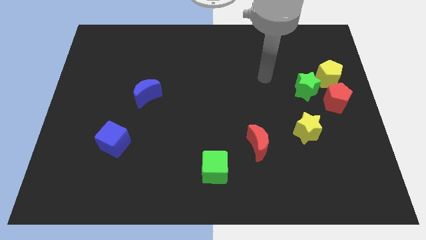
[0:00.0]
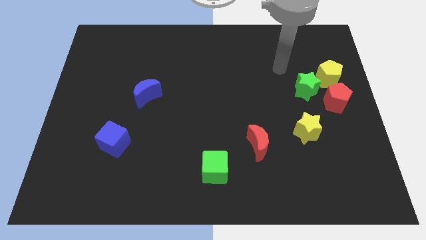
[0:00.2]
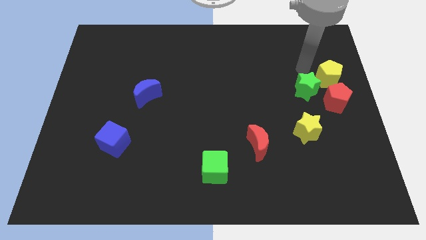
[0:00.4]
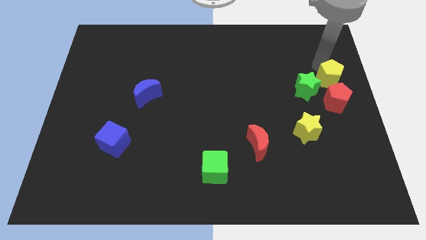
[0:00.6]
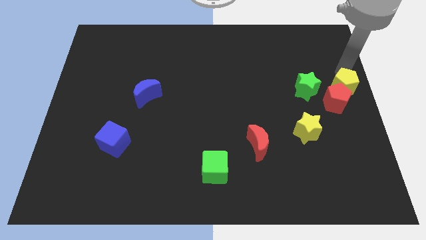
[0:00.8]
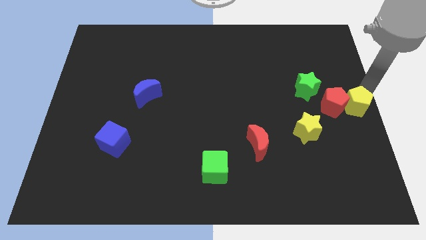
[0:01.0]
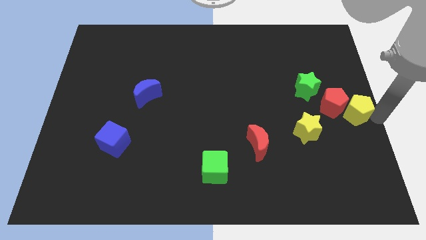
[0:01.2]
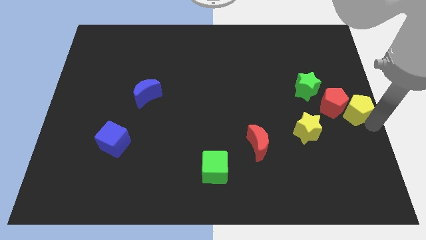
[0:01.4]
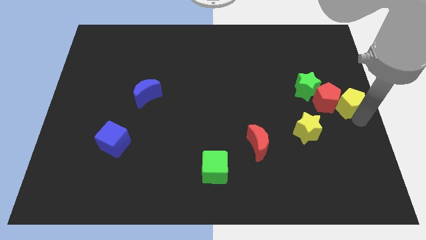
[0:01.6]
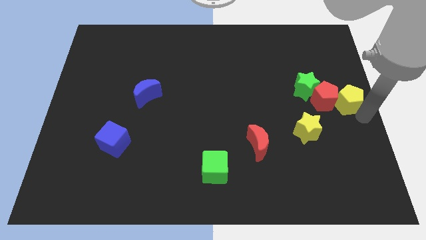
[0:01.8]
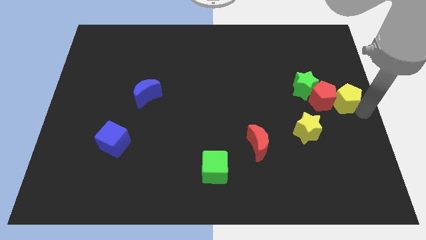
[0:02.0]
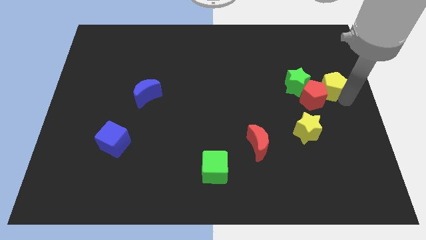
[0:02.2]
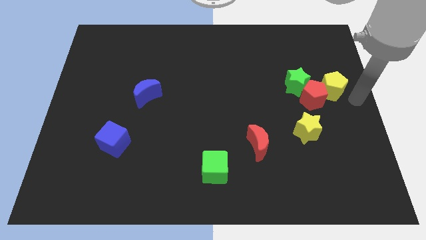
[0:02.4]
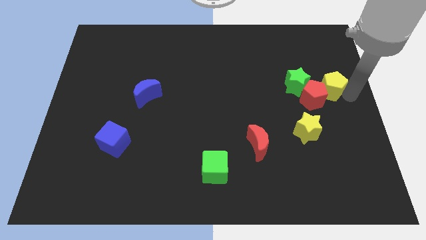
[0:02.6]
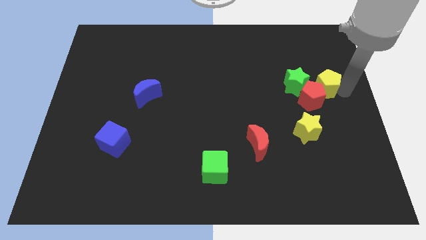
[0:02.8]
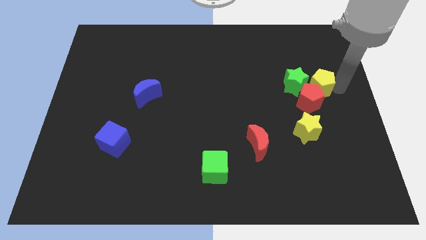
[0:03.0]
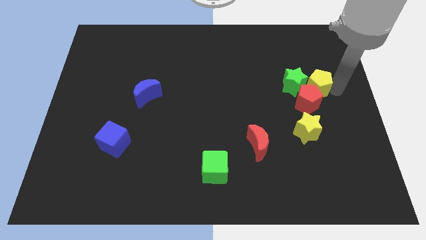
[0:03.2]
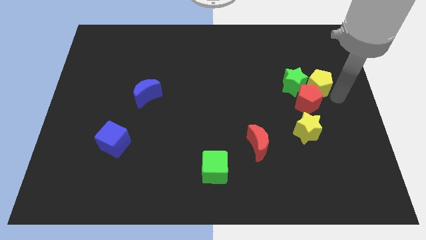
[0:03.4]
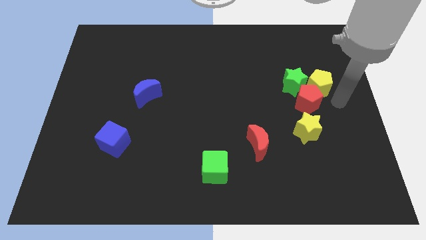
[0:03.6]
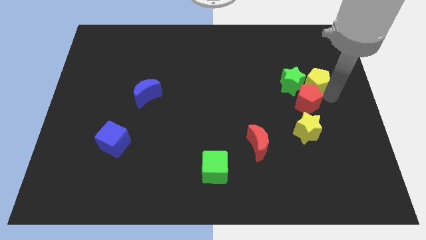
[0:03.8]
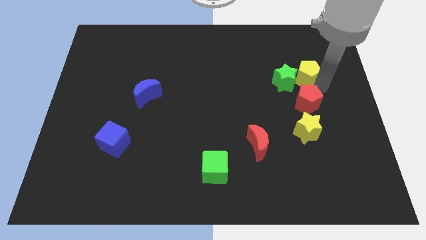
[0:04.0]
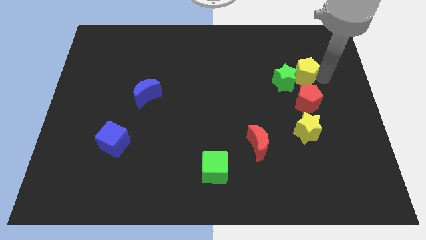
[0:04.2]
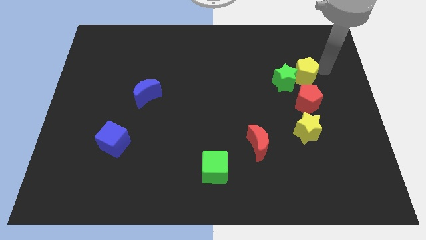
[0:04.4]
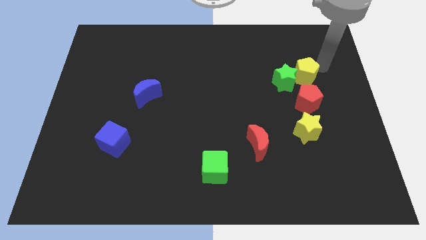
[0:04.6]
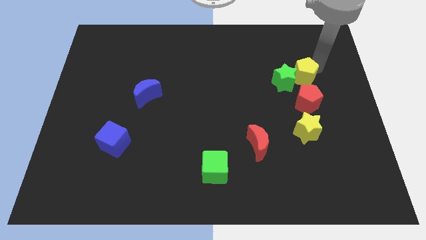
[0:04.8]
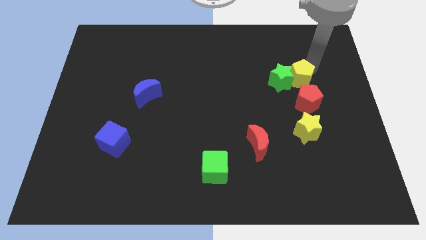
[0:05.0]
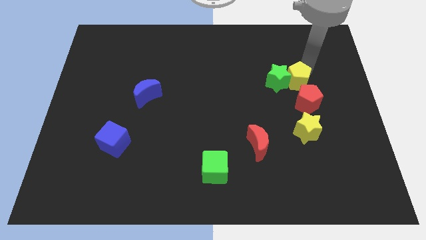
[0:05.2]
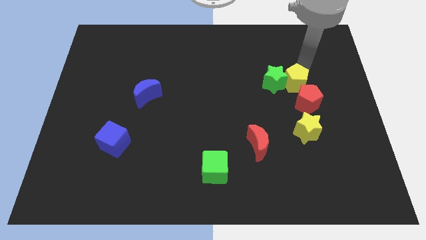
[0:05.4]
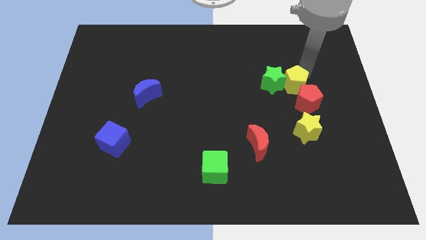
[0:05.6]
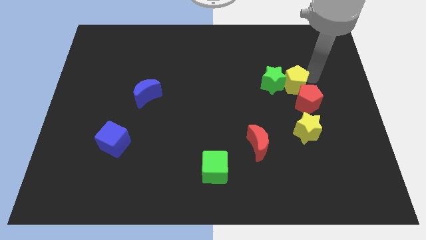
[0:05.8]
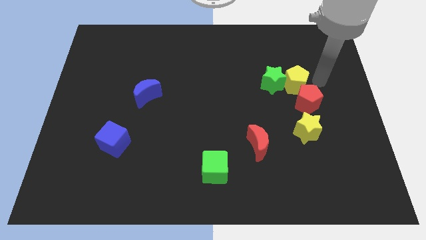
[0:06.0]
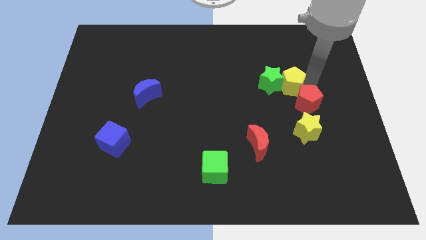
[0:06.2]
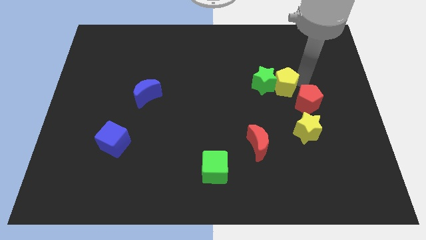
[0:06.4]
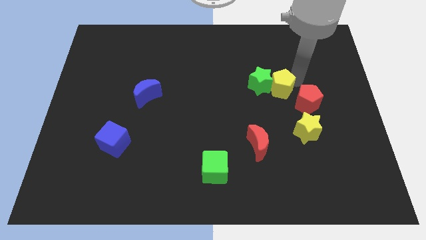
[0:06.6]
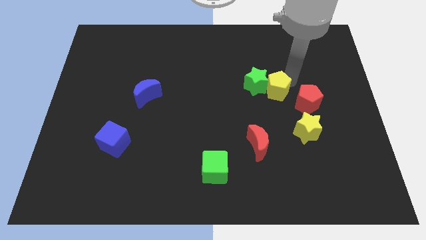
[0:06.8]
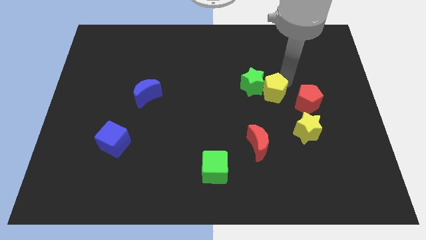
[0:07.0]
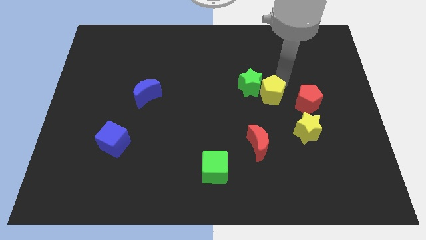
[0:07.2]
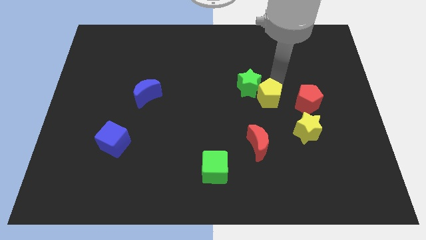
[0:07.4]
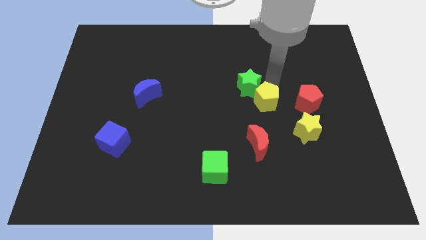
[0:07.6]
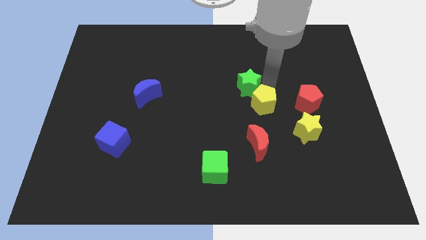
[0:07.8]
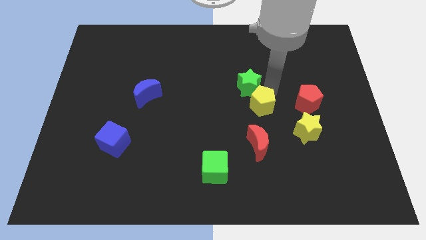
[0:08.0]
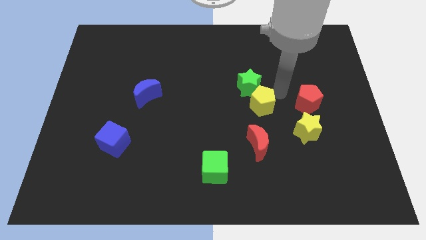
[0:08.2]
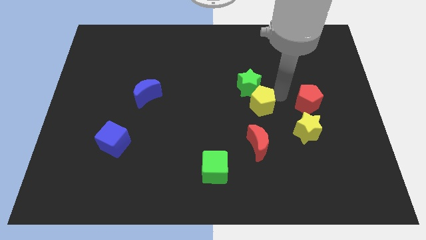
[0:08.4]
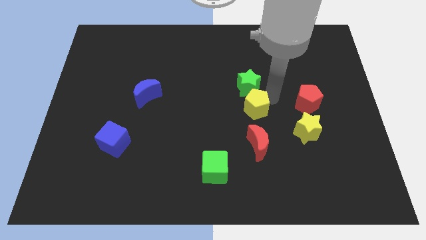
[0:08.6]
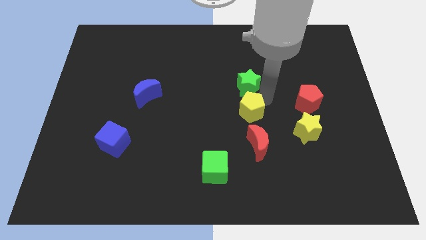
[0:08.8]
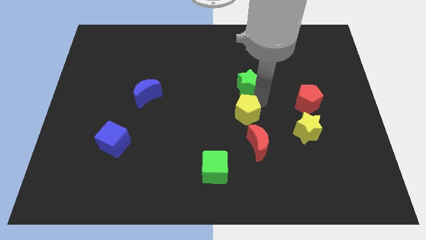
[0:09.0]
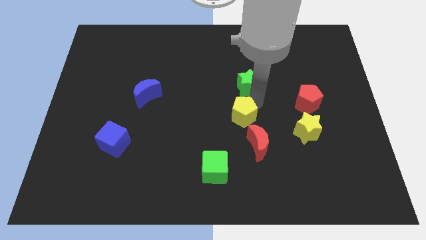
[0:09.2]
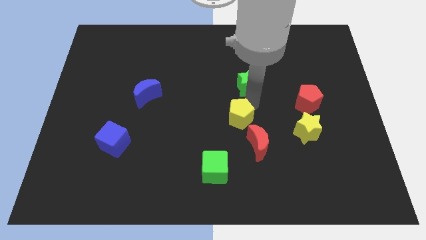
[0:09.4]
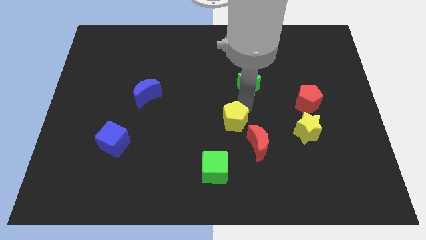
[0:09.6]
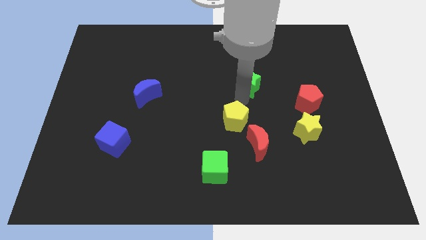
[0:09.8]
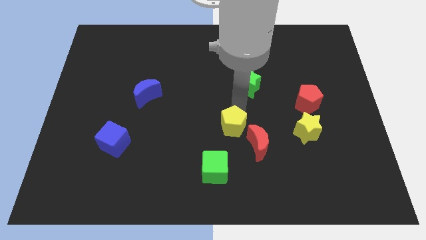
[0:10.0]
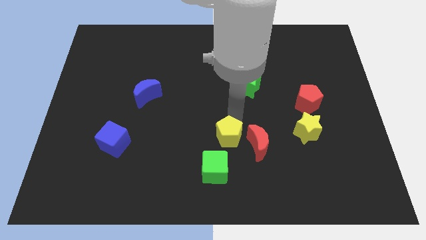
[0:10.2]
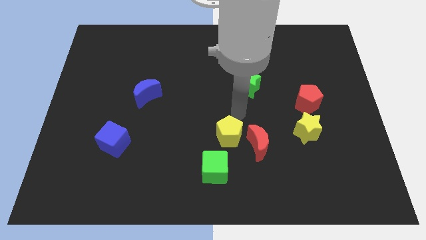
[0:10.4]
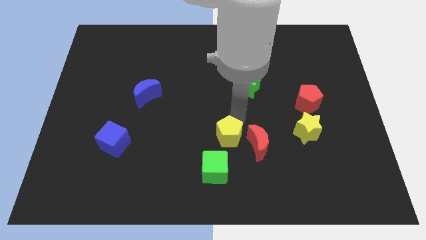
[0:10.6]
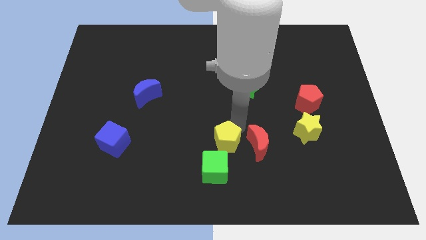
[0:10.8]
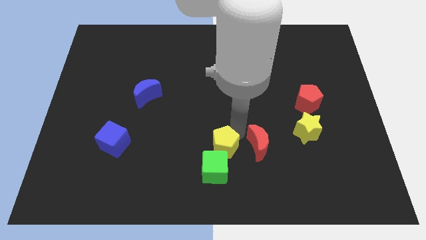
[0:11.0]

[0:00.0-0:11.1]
move the yellow pentagon to the green cube

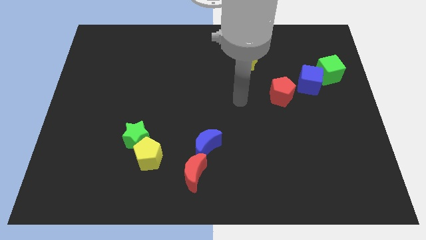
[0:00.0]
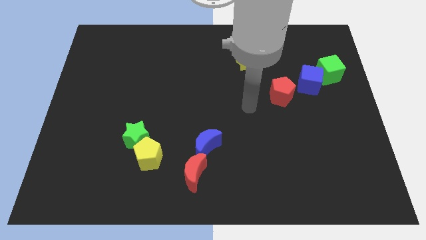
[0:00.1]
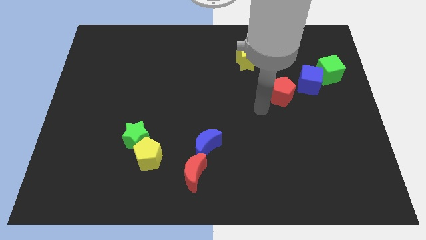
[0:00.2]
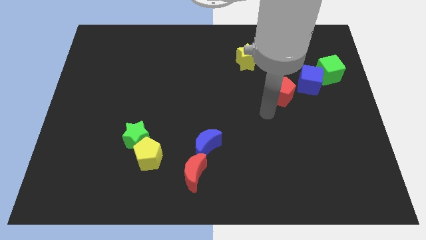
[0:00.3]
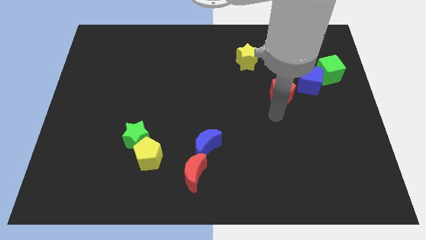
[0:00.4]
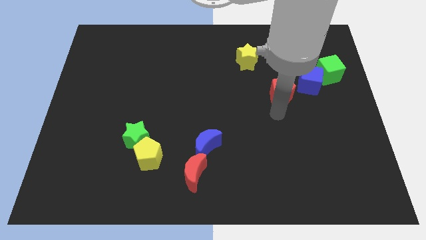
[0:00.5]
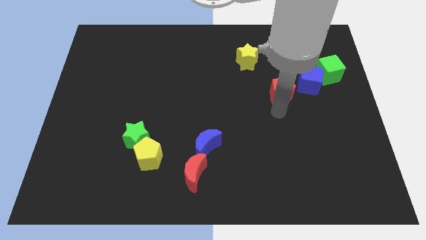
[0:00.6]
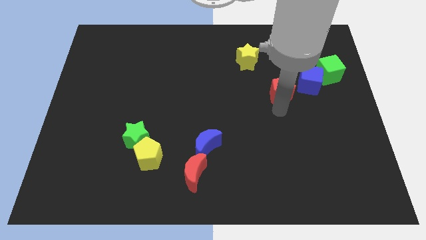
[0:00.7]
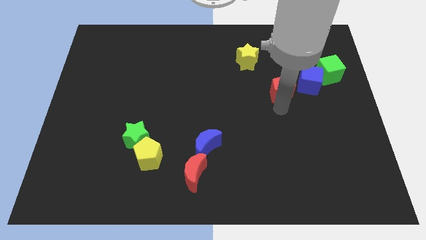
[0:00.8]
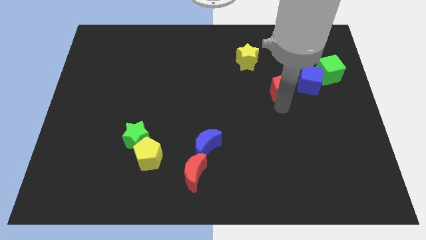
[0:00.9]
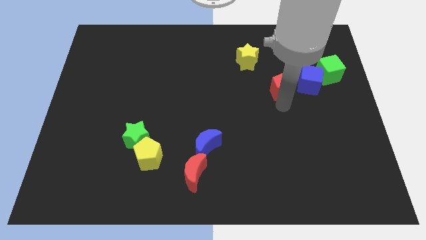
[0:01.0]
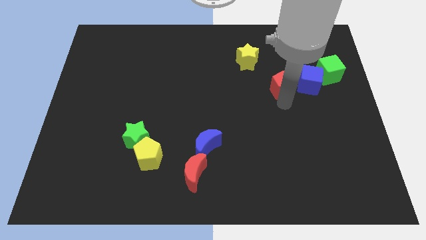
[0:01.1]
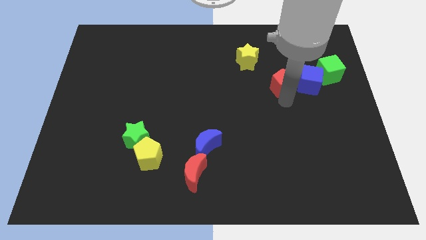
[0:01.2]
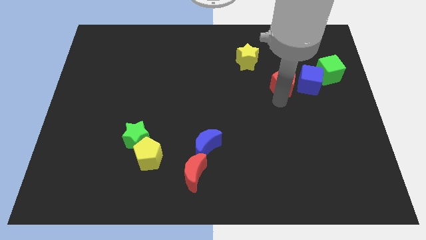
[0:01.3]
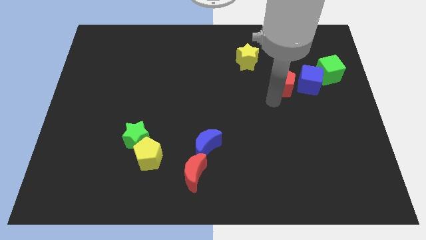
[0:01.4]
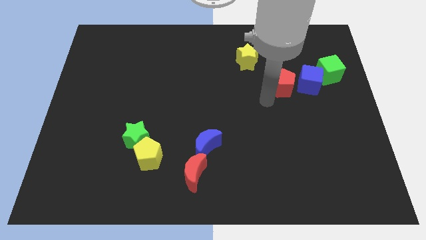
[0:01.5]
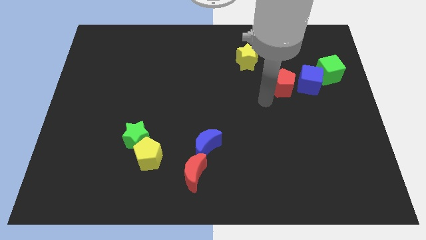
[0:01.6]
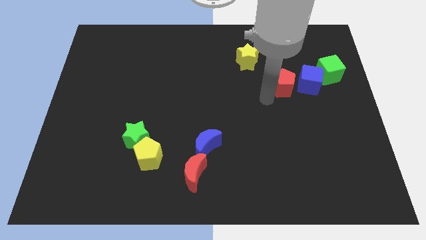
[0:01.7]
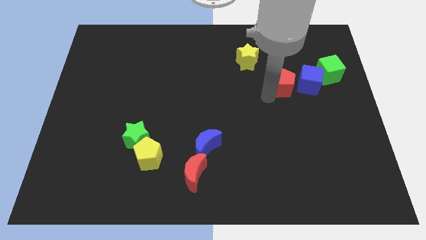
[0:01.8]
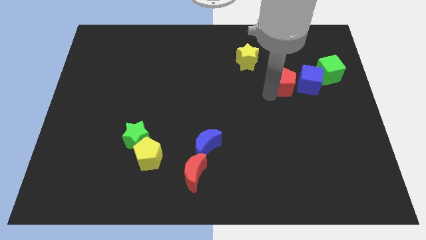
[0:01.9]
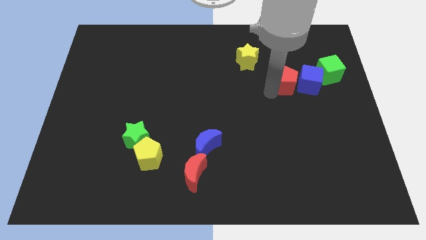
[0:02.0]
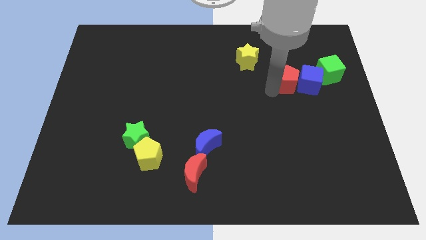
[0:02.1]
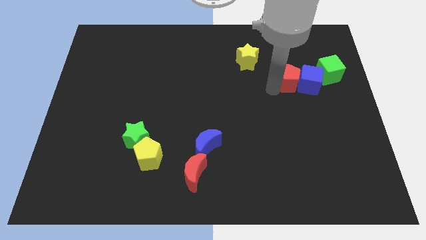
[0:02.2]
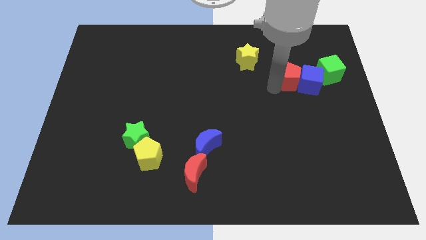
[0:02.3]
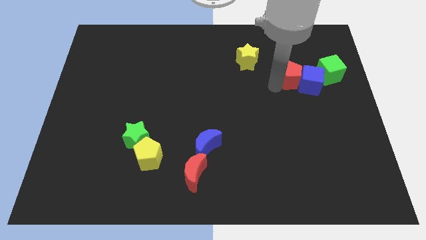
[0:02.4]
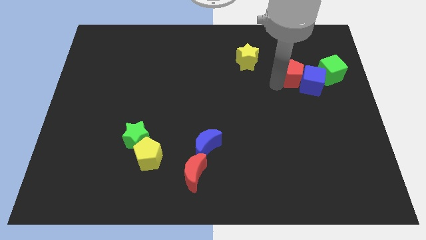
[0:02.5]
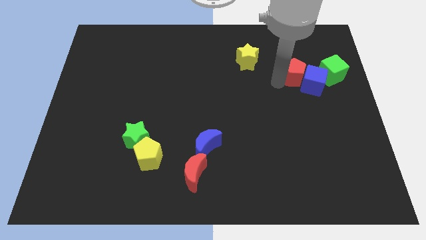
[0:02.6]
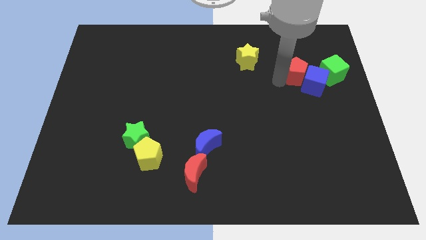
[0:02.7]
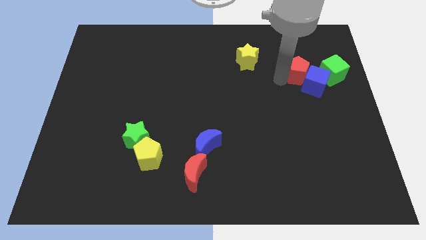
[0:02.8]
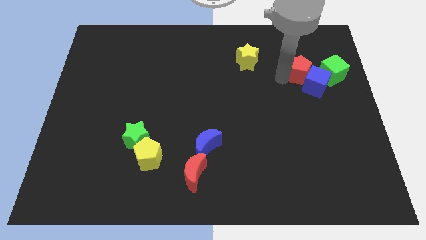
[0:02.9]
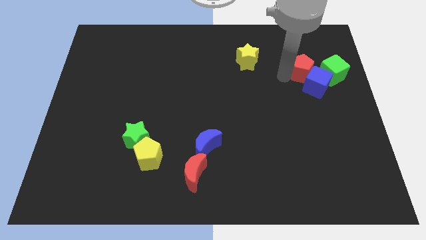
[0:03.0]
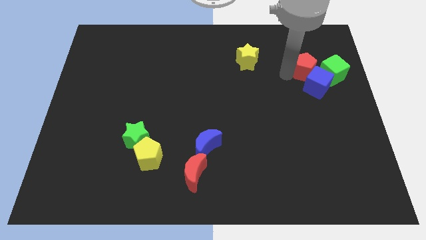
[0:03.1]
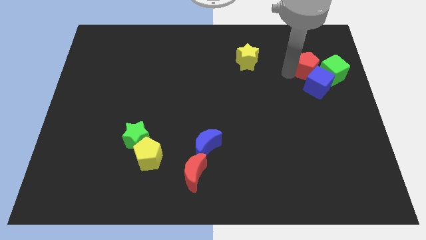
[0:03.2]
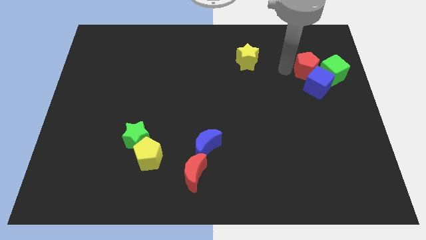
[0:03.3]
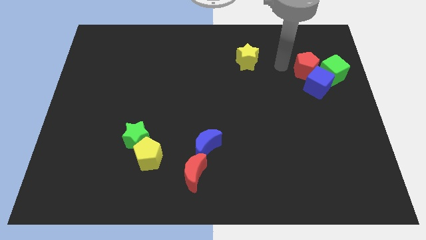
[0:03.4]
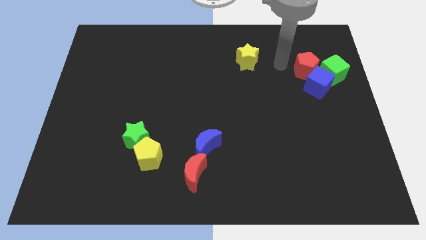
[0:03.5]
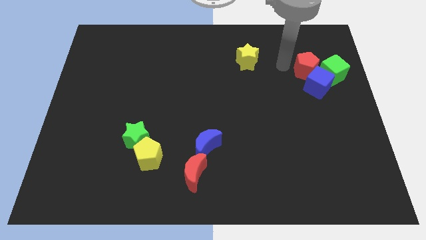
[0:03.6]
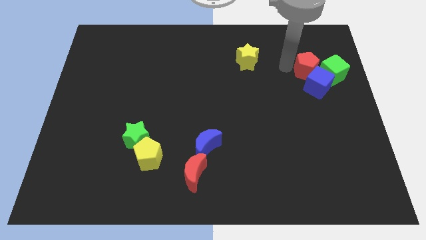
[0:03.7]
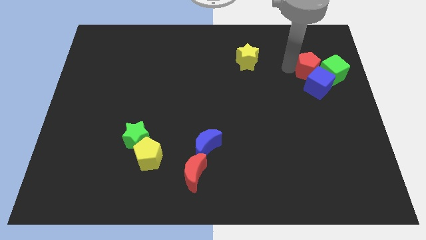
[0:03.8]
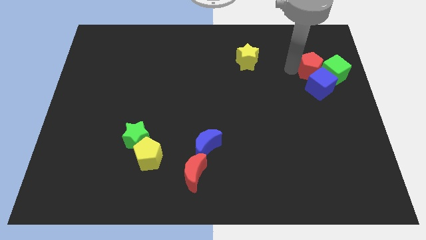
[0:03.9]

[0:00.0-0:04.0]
slide the red pentagon close to the green cube
